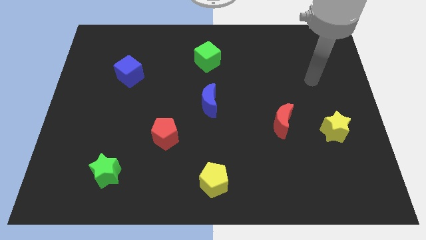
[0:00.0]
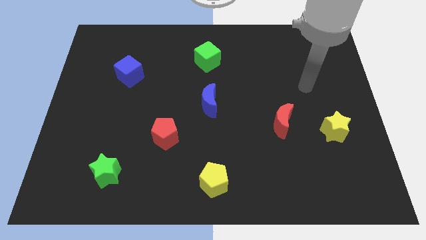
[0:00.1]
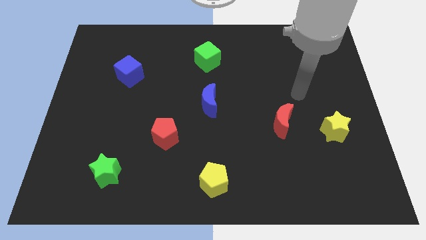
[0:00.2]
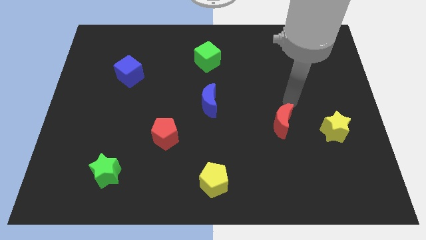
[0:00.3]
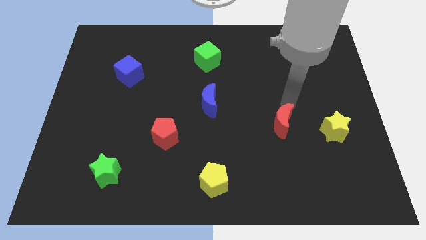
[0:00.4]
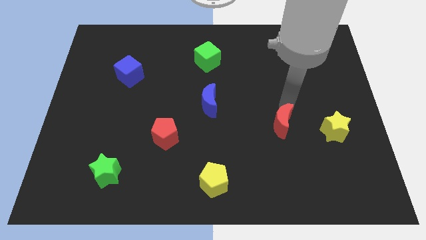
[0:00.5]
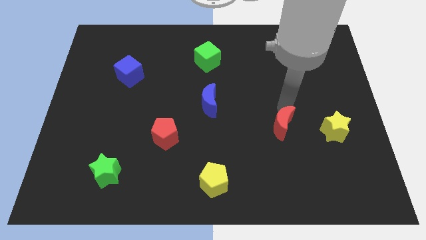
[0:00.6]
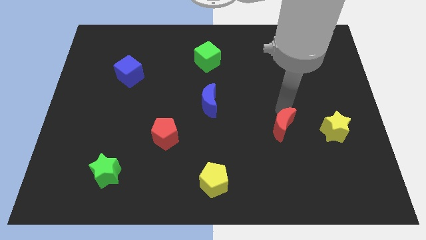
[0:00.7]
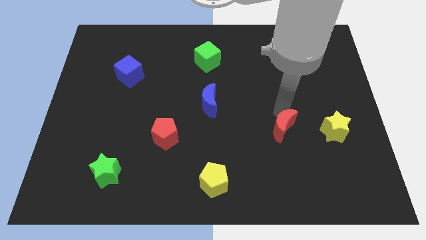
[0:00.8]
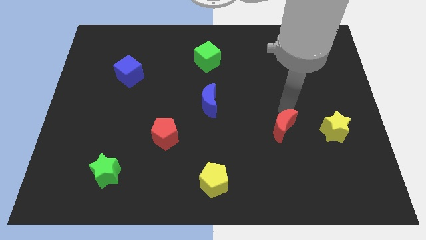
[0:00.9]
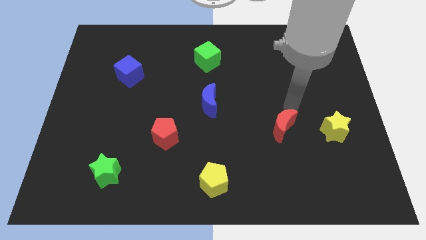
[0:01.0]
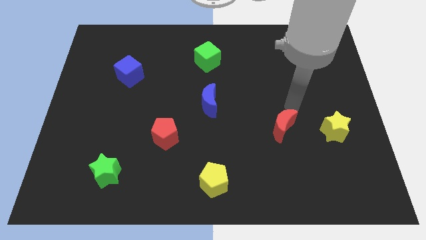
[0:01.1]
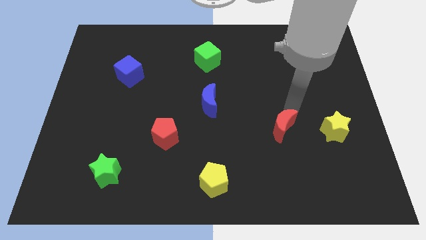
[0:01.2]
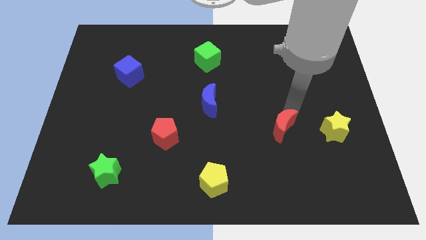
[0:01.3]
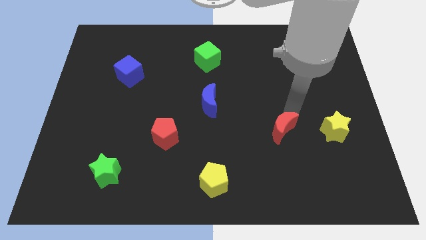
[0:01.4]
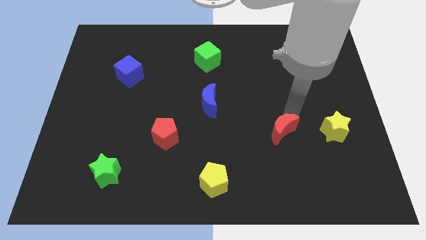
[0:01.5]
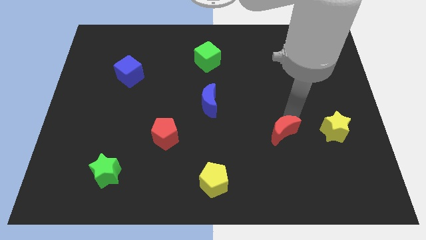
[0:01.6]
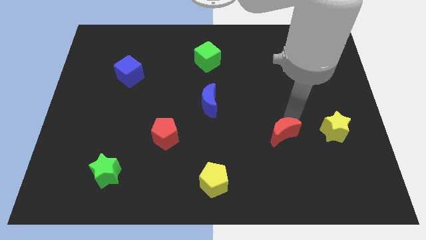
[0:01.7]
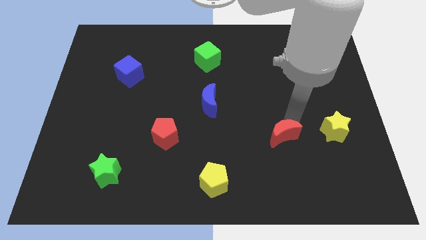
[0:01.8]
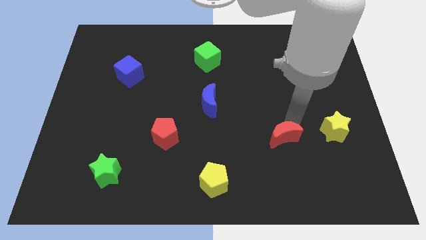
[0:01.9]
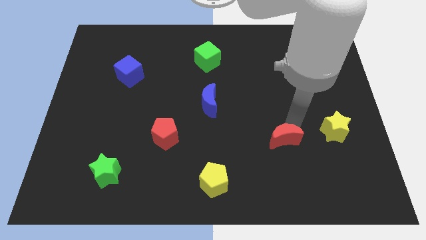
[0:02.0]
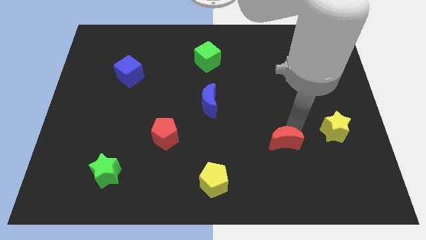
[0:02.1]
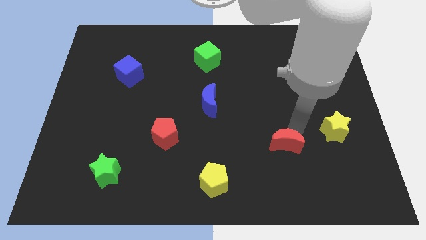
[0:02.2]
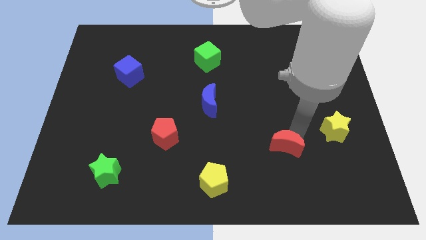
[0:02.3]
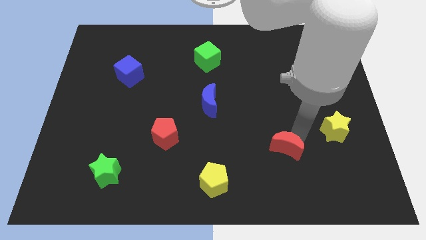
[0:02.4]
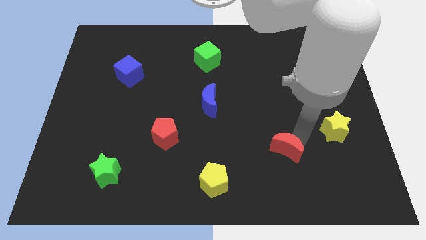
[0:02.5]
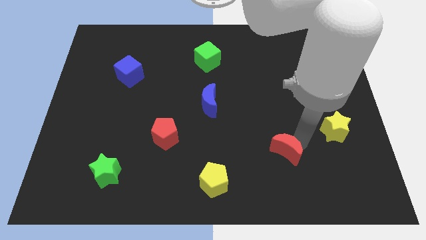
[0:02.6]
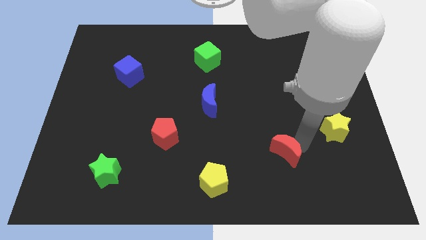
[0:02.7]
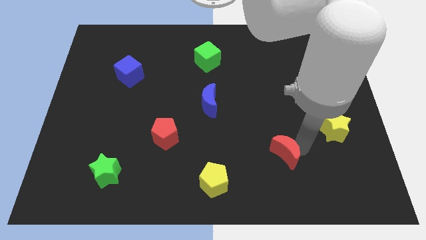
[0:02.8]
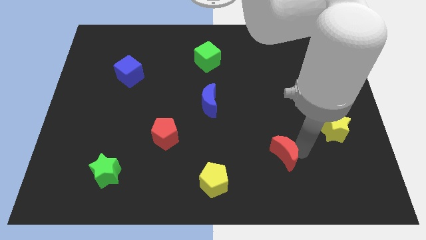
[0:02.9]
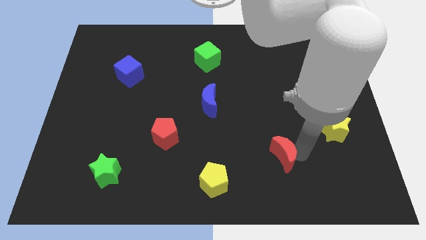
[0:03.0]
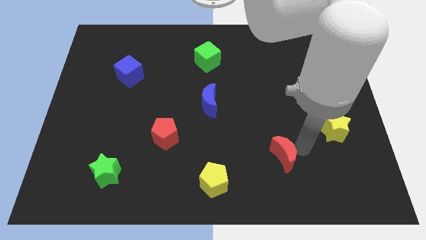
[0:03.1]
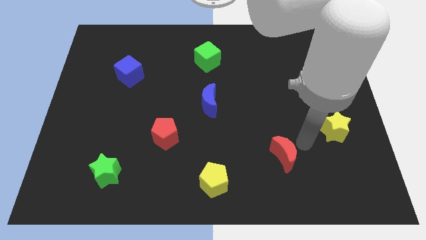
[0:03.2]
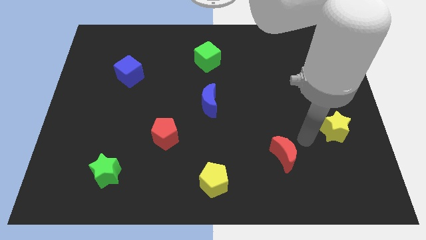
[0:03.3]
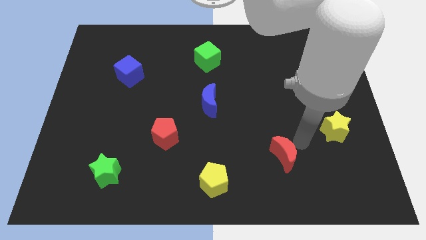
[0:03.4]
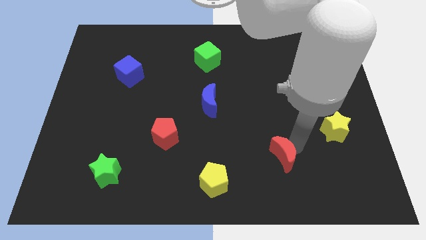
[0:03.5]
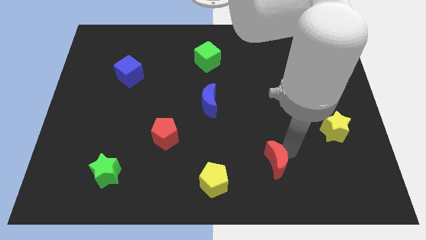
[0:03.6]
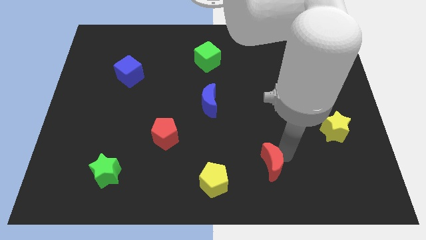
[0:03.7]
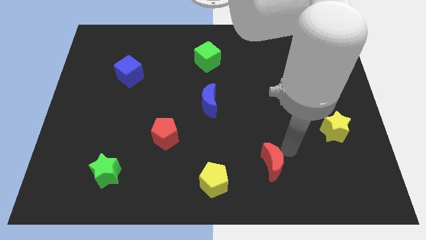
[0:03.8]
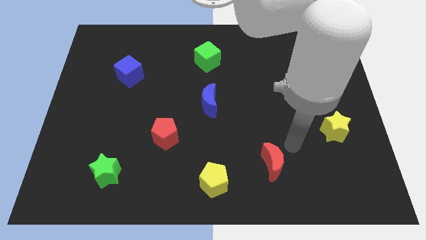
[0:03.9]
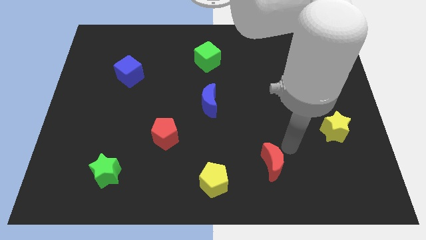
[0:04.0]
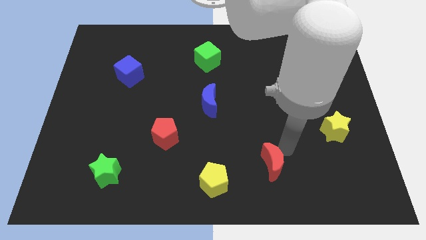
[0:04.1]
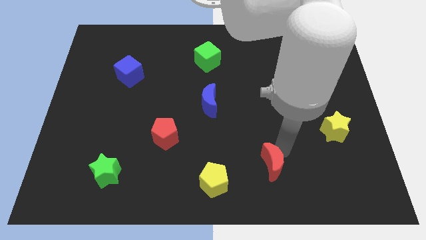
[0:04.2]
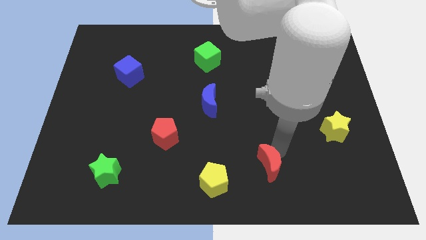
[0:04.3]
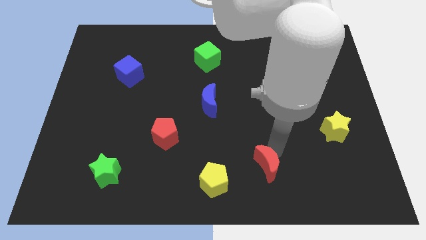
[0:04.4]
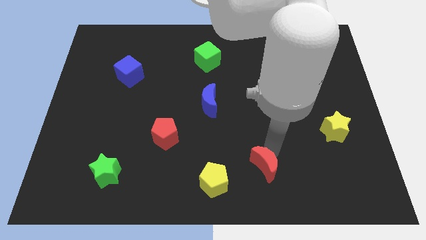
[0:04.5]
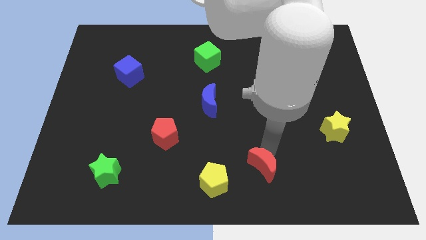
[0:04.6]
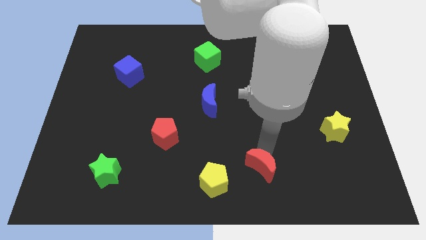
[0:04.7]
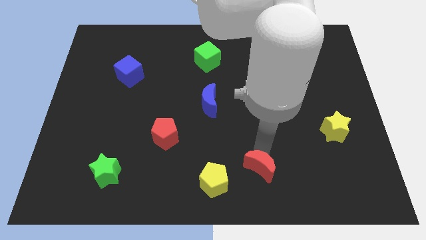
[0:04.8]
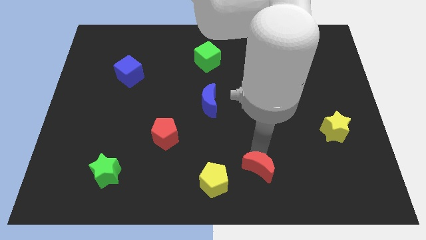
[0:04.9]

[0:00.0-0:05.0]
push the red moon to the bottom side

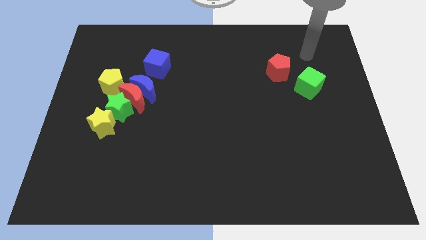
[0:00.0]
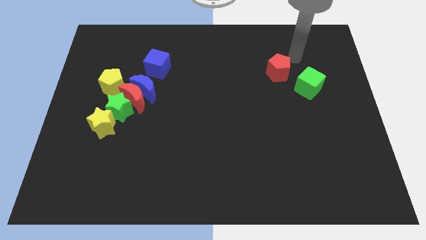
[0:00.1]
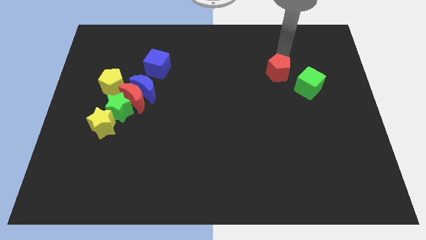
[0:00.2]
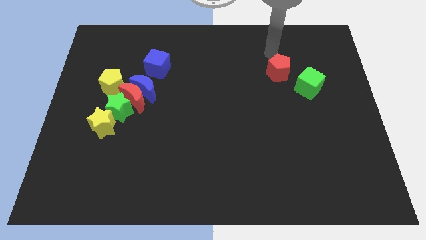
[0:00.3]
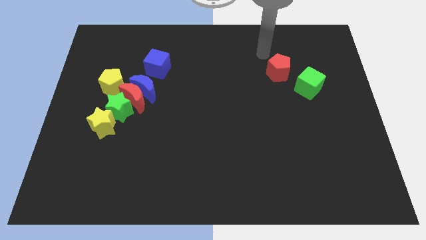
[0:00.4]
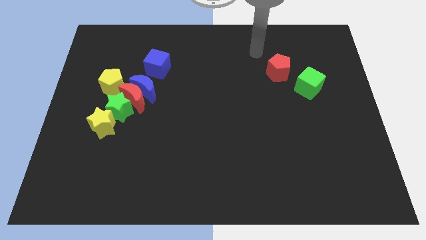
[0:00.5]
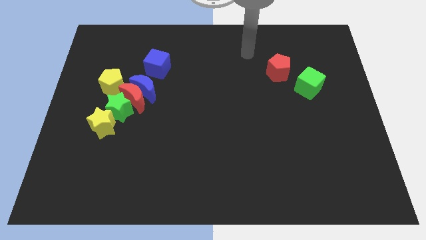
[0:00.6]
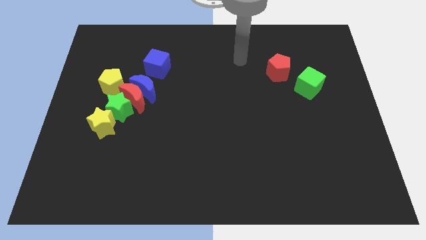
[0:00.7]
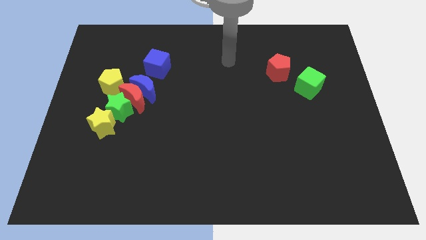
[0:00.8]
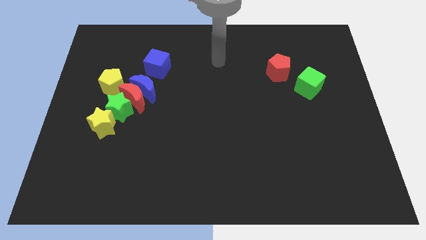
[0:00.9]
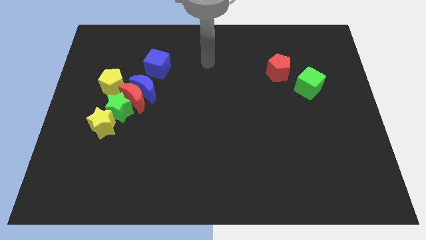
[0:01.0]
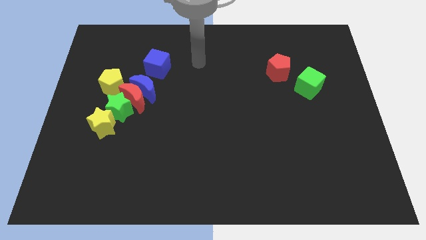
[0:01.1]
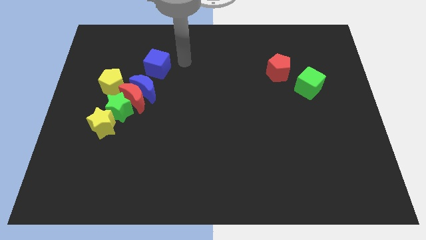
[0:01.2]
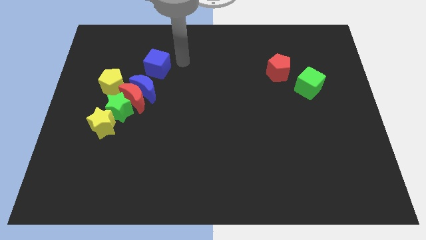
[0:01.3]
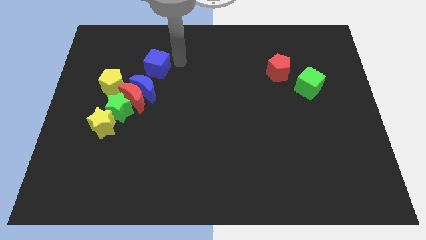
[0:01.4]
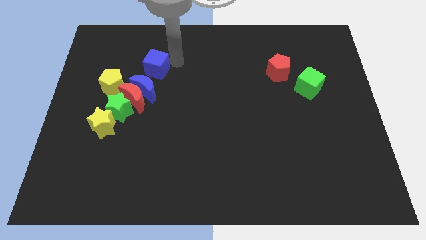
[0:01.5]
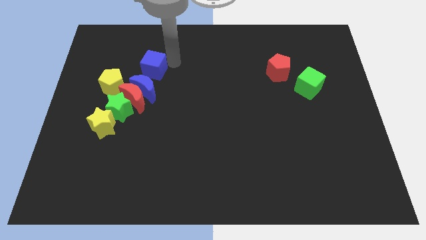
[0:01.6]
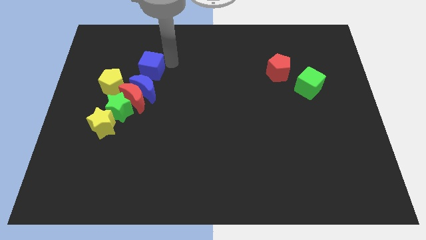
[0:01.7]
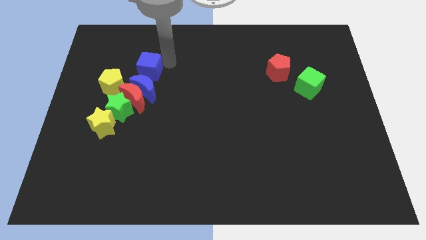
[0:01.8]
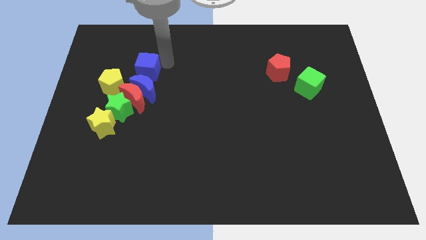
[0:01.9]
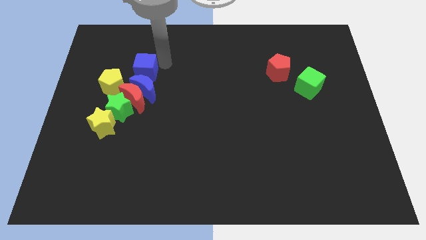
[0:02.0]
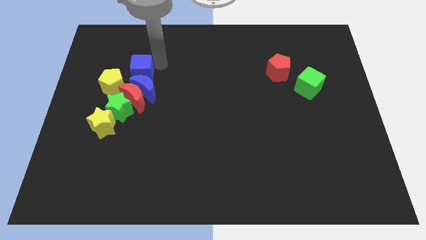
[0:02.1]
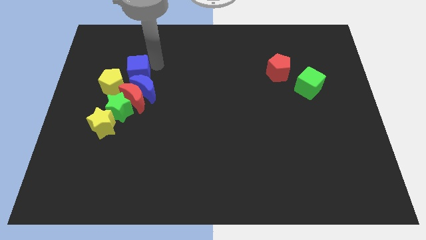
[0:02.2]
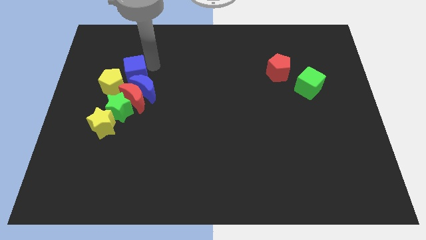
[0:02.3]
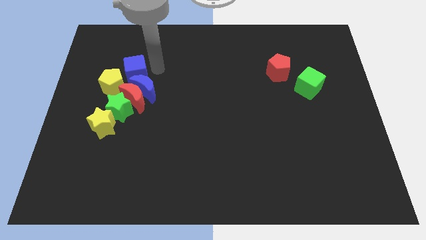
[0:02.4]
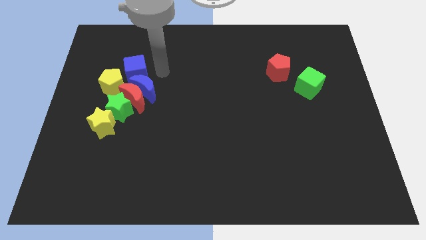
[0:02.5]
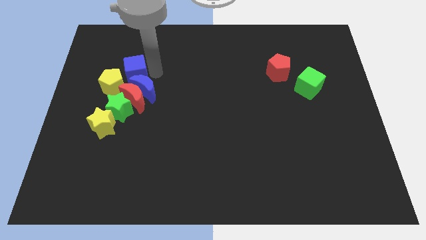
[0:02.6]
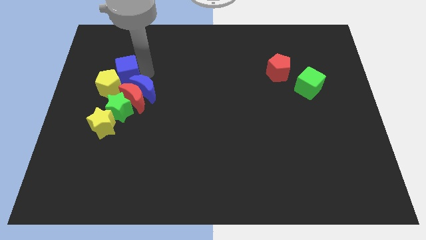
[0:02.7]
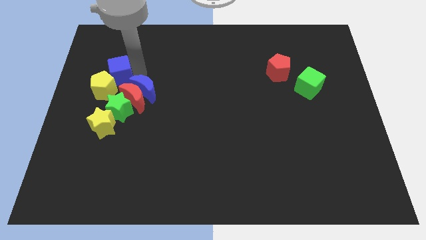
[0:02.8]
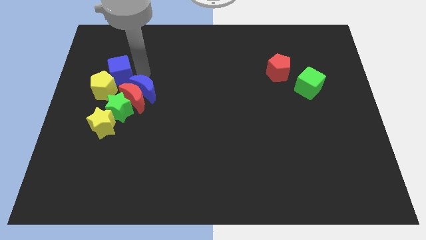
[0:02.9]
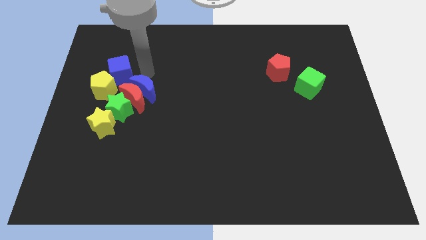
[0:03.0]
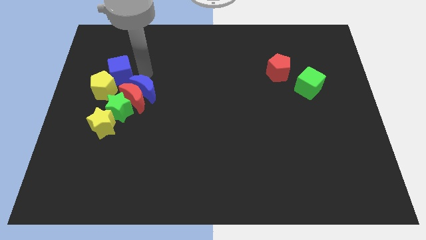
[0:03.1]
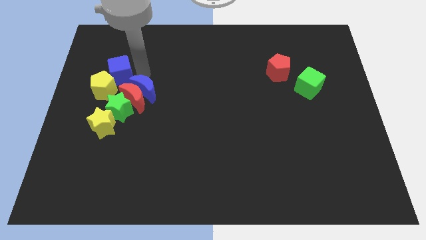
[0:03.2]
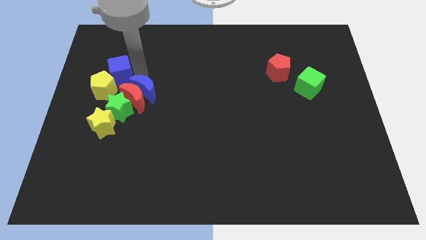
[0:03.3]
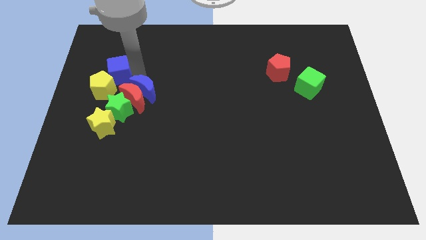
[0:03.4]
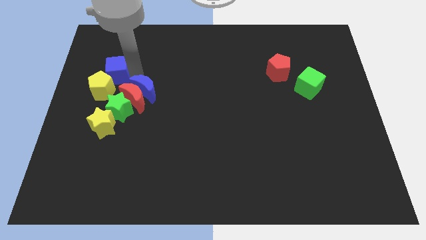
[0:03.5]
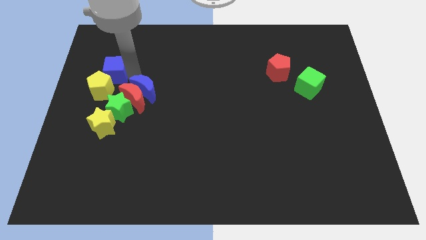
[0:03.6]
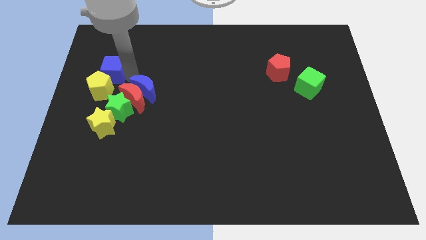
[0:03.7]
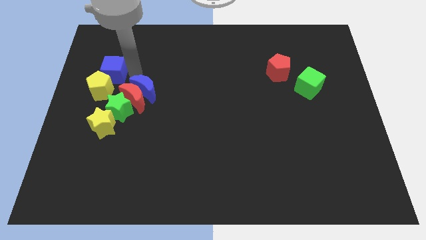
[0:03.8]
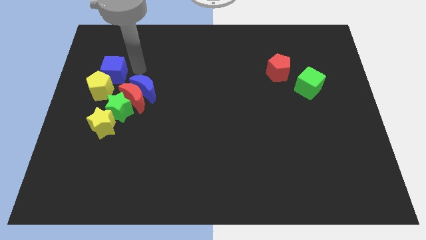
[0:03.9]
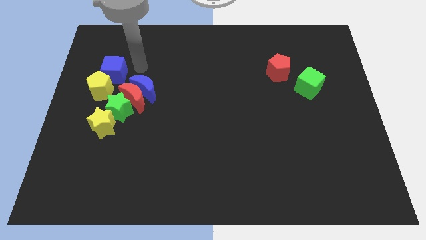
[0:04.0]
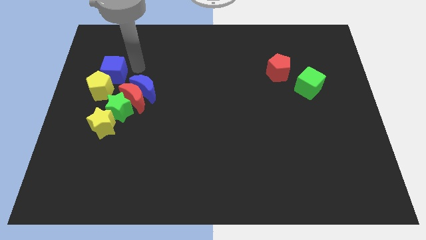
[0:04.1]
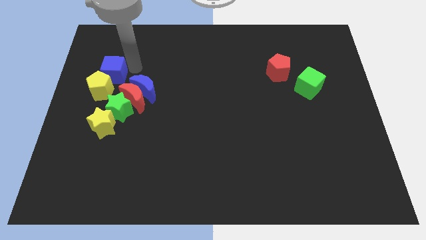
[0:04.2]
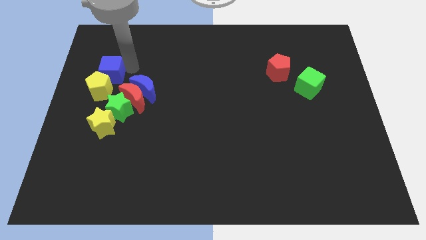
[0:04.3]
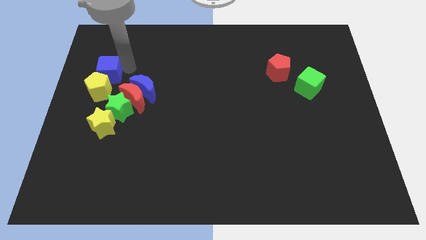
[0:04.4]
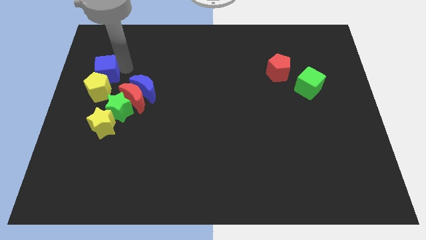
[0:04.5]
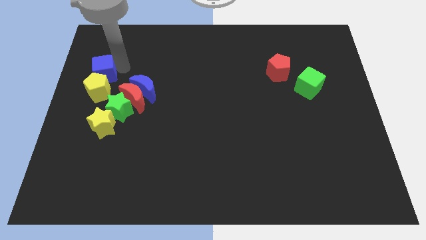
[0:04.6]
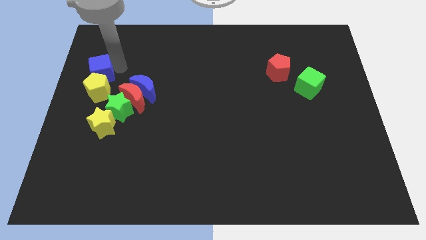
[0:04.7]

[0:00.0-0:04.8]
move the blue cube to the center left
